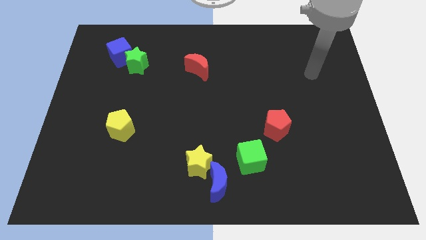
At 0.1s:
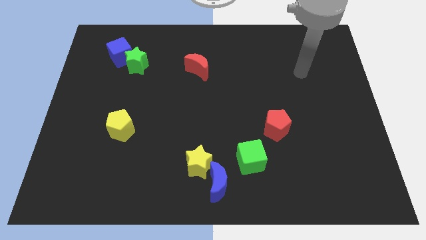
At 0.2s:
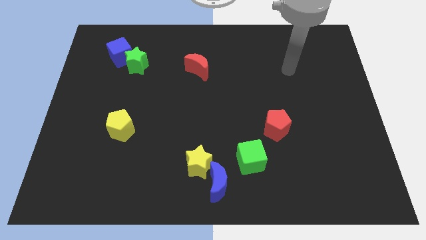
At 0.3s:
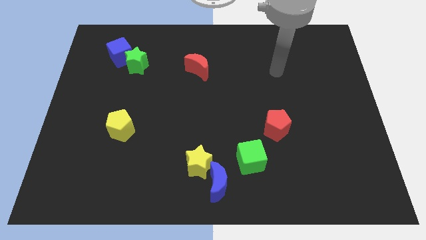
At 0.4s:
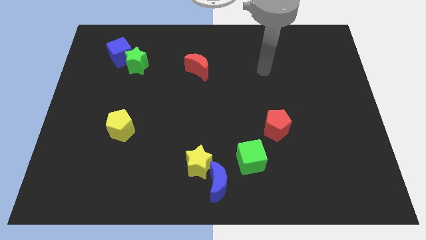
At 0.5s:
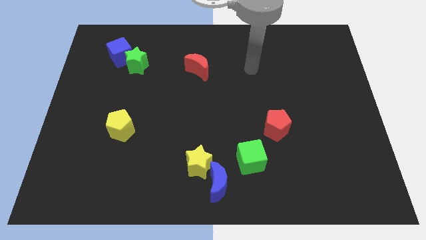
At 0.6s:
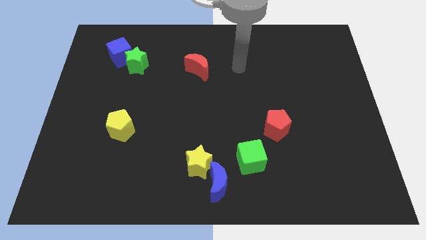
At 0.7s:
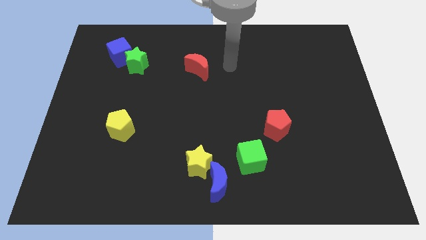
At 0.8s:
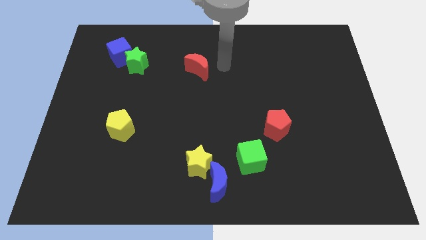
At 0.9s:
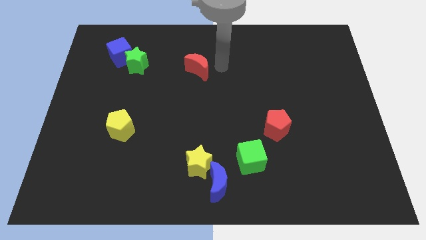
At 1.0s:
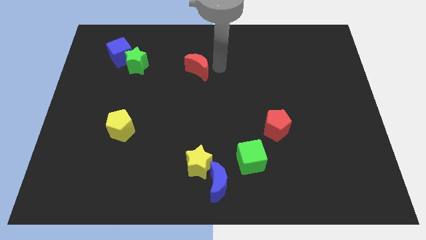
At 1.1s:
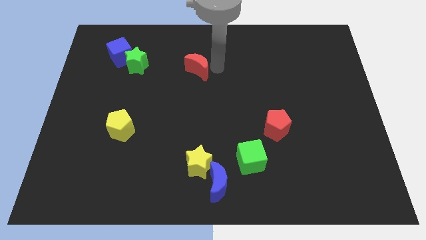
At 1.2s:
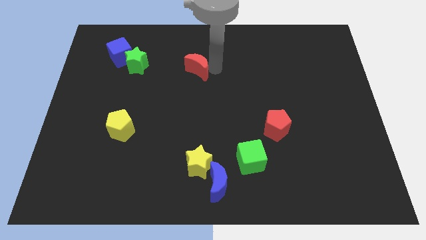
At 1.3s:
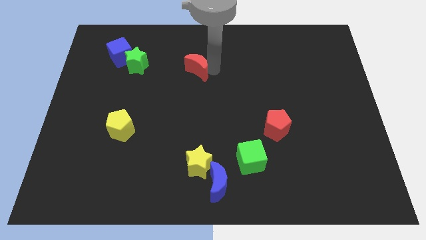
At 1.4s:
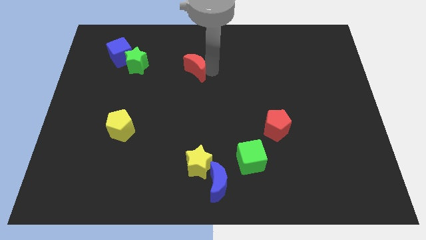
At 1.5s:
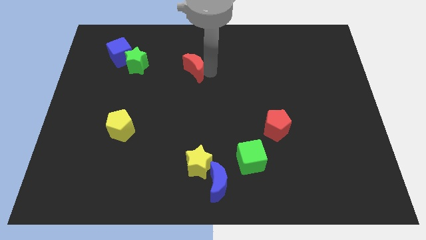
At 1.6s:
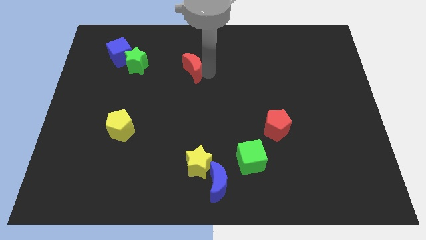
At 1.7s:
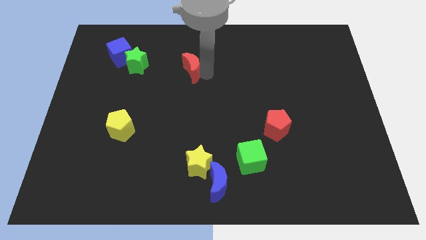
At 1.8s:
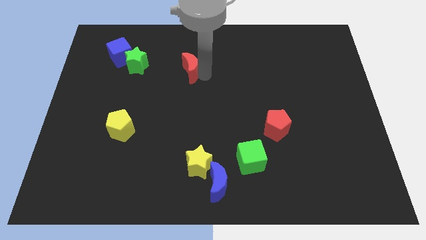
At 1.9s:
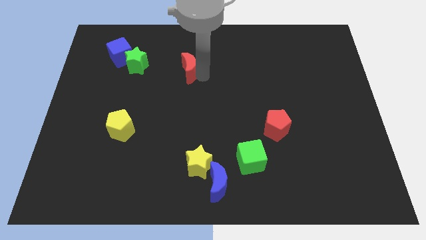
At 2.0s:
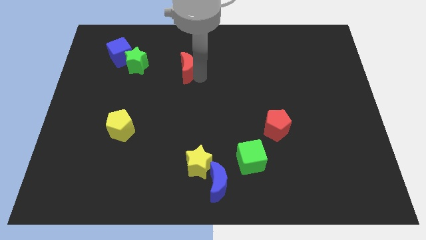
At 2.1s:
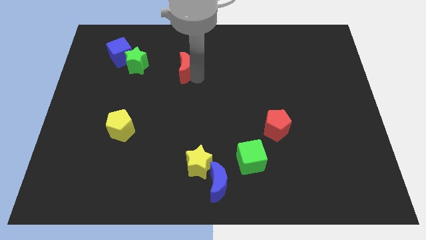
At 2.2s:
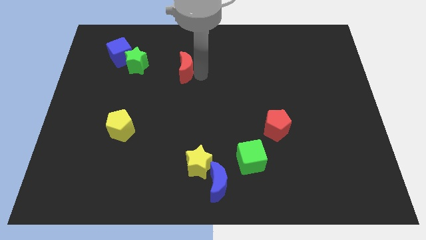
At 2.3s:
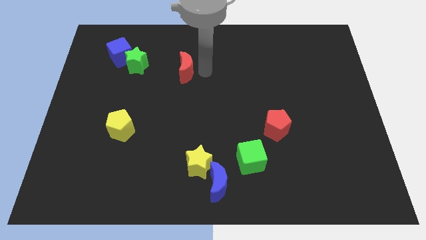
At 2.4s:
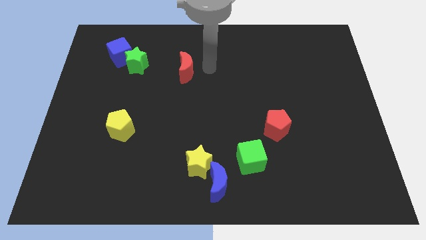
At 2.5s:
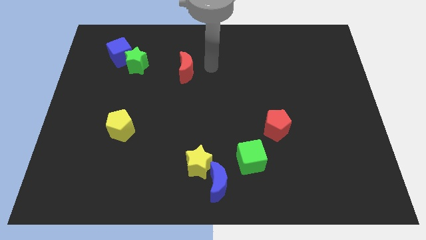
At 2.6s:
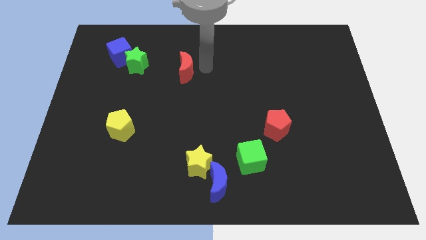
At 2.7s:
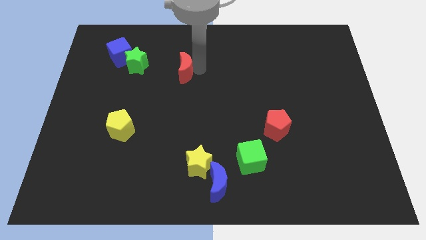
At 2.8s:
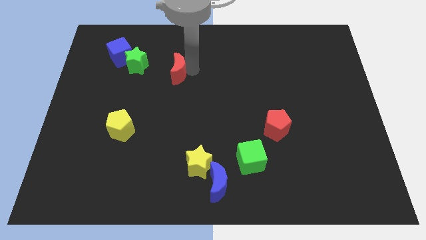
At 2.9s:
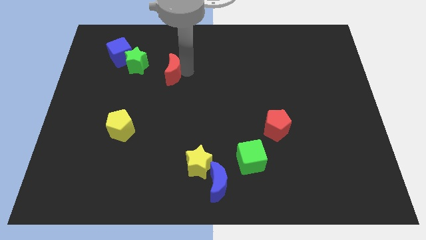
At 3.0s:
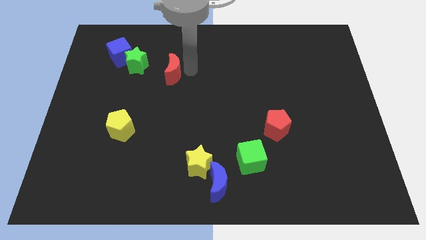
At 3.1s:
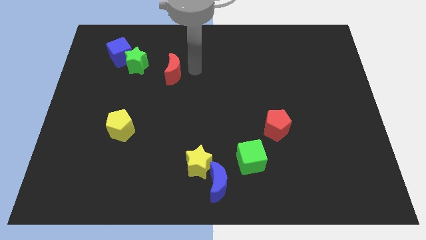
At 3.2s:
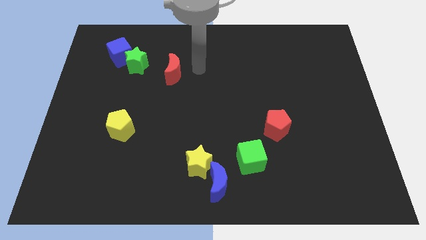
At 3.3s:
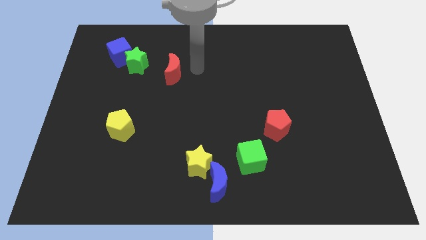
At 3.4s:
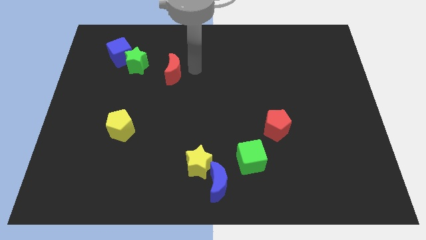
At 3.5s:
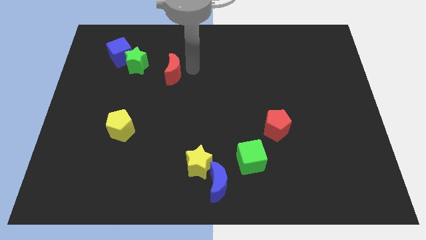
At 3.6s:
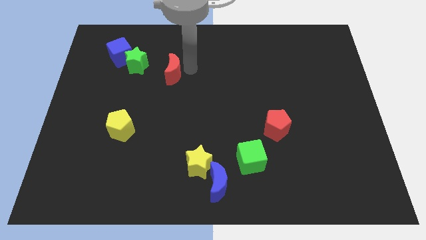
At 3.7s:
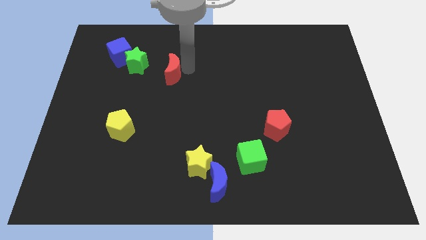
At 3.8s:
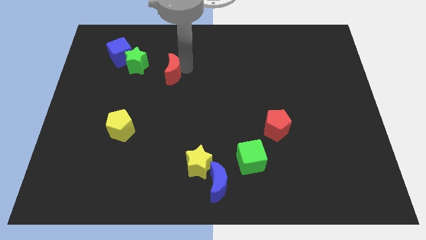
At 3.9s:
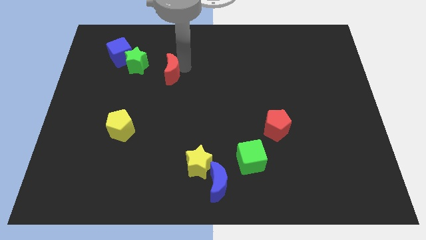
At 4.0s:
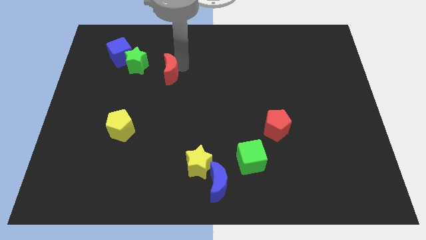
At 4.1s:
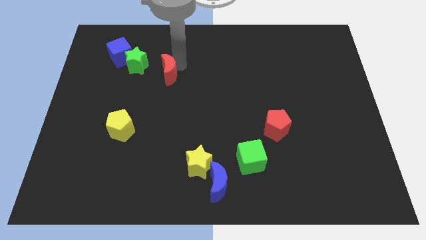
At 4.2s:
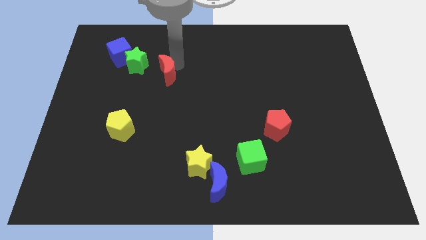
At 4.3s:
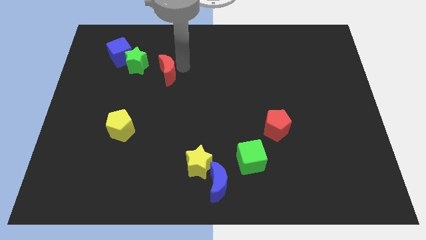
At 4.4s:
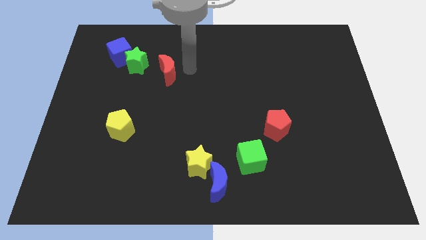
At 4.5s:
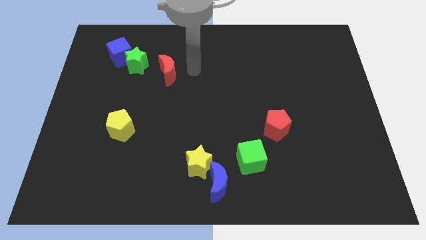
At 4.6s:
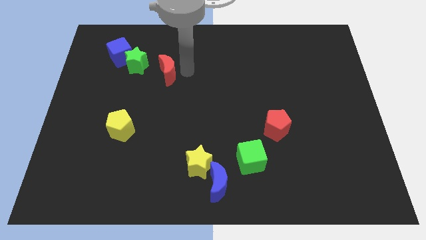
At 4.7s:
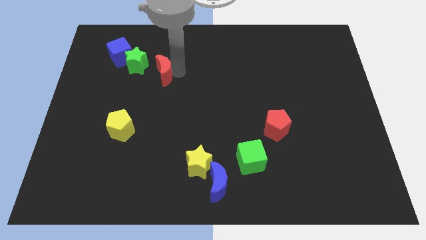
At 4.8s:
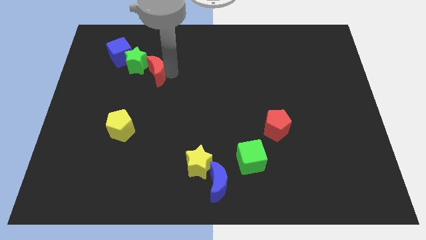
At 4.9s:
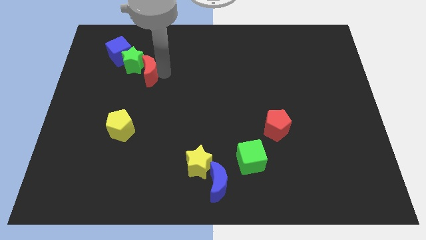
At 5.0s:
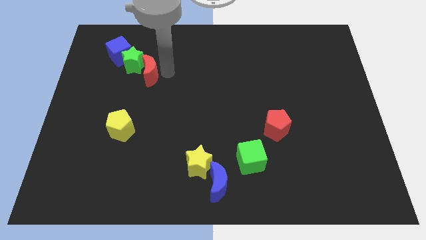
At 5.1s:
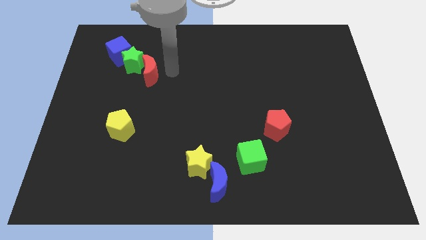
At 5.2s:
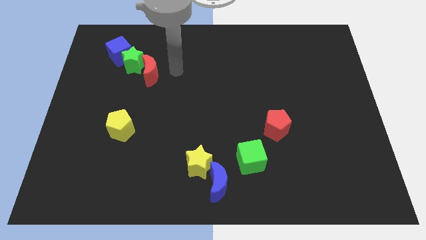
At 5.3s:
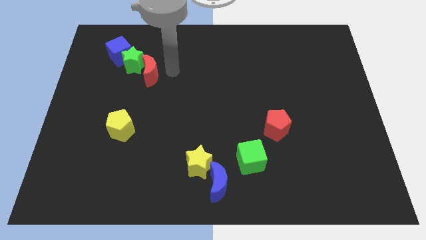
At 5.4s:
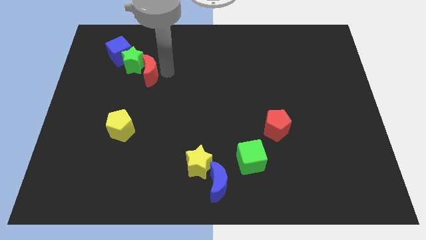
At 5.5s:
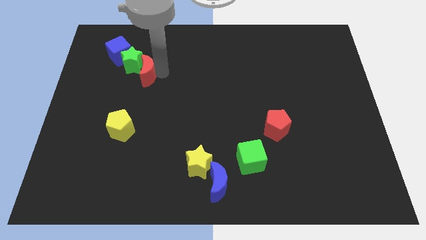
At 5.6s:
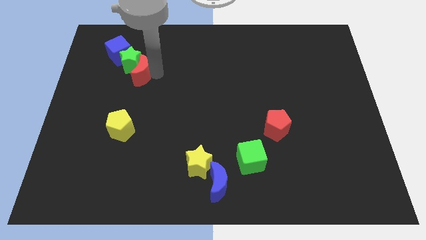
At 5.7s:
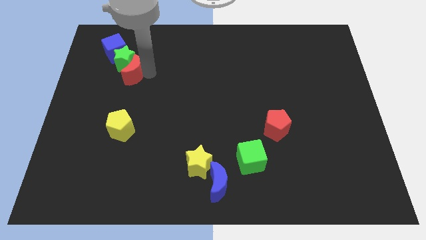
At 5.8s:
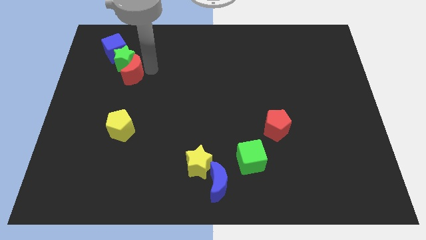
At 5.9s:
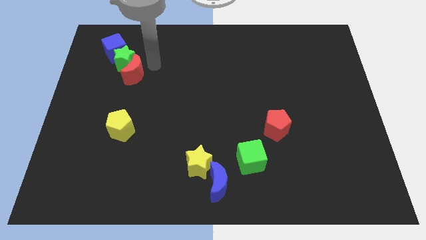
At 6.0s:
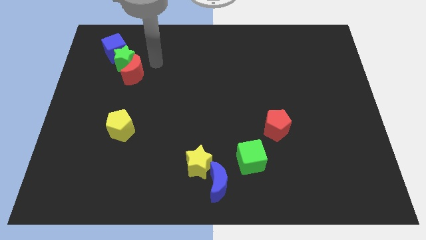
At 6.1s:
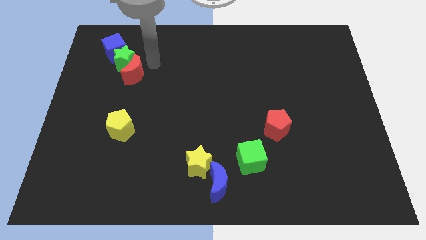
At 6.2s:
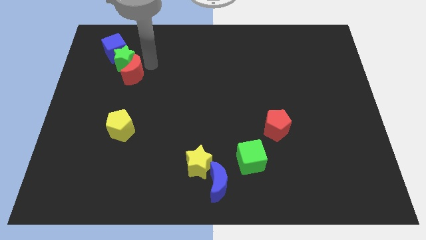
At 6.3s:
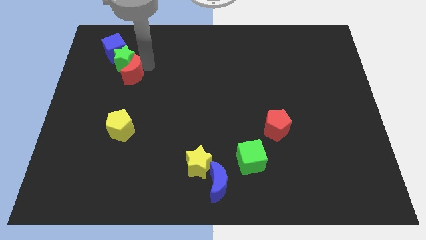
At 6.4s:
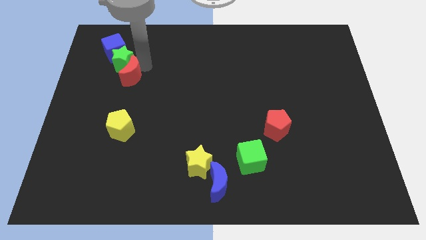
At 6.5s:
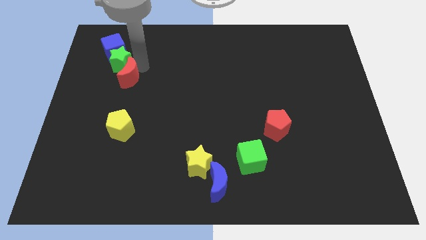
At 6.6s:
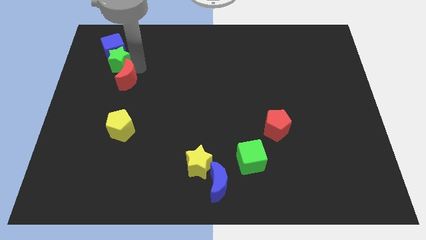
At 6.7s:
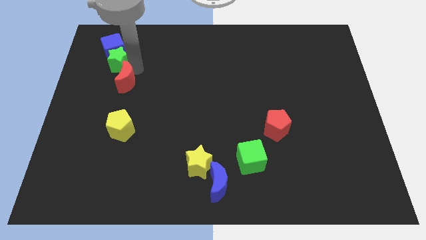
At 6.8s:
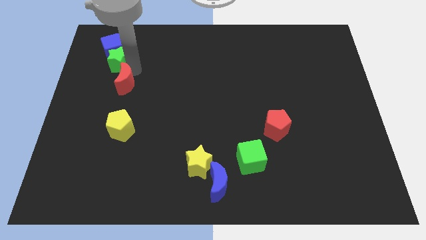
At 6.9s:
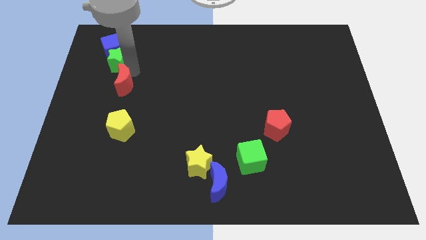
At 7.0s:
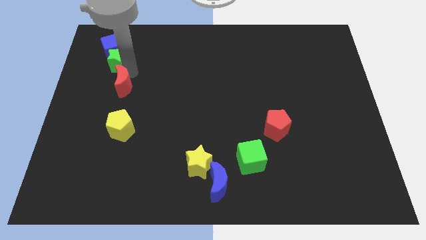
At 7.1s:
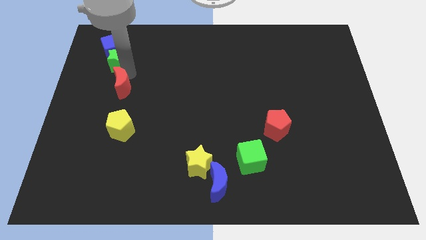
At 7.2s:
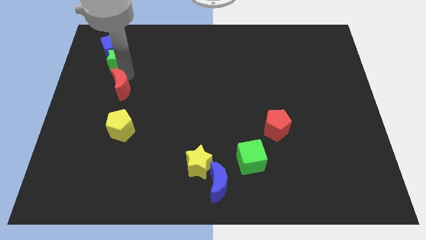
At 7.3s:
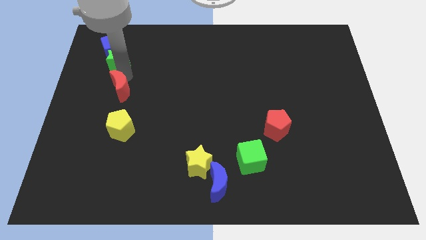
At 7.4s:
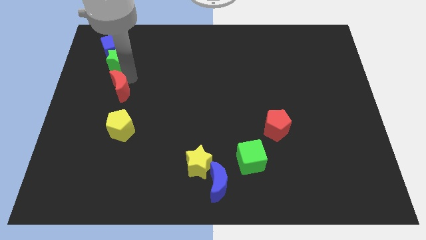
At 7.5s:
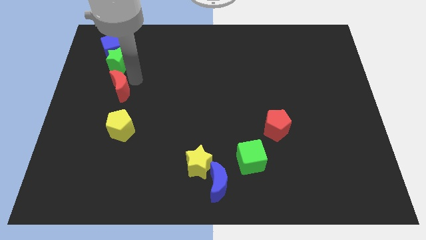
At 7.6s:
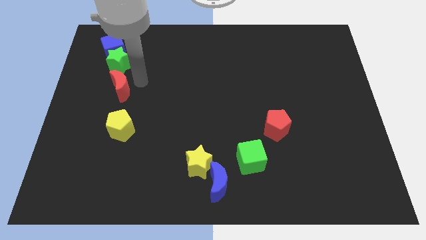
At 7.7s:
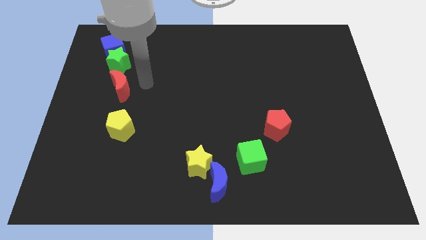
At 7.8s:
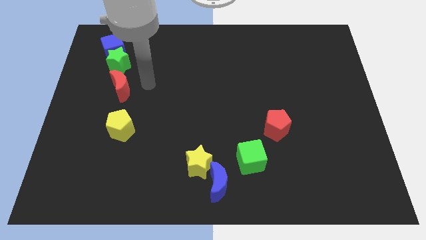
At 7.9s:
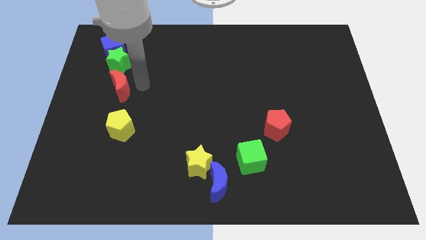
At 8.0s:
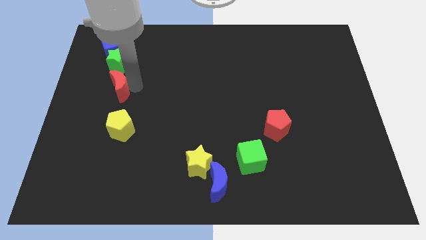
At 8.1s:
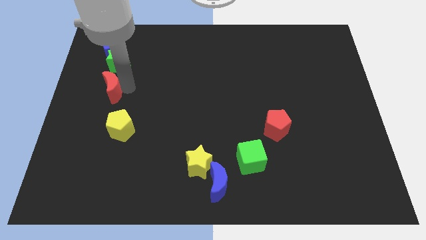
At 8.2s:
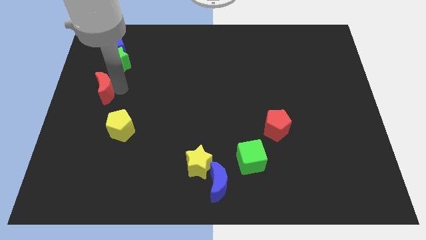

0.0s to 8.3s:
move the red moon to the left side of the board
